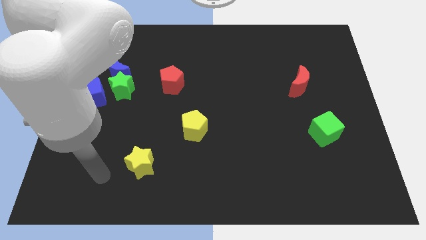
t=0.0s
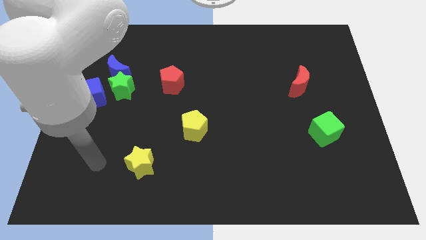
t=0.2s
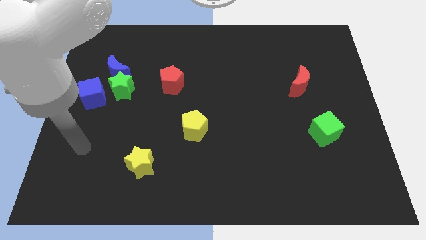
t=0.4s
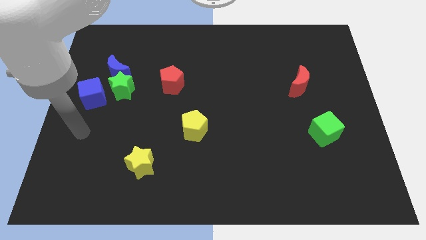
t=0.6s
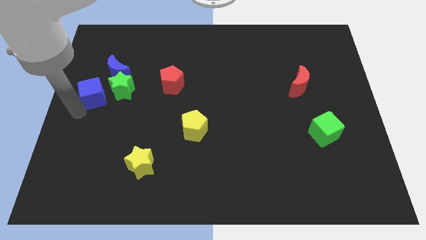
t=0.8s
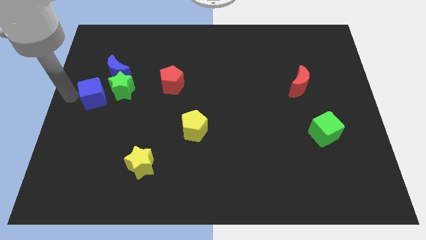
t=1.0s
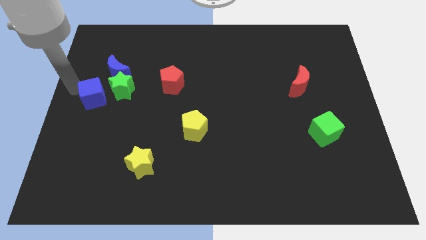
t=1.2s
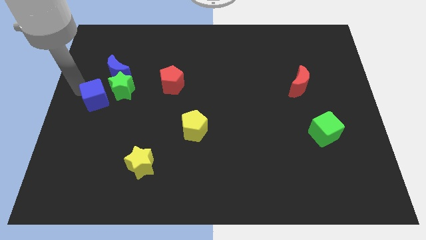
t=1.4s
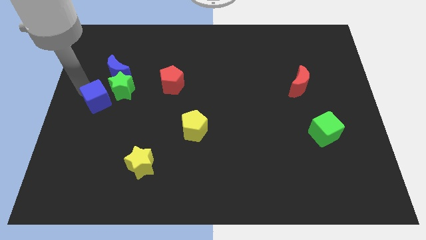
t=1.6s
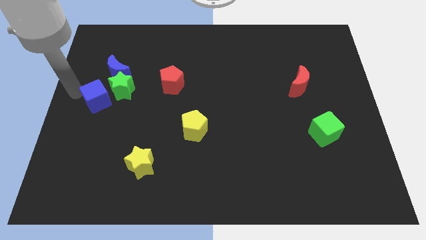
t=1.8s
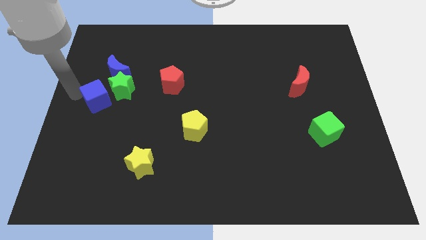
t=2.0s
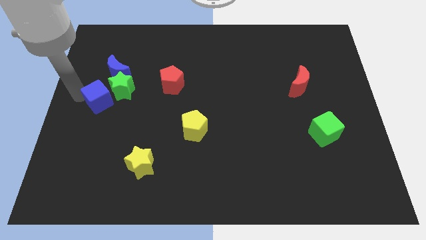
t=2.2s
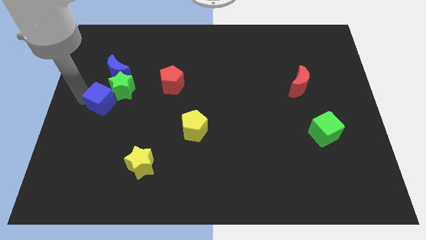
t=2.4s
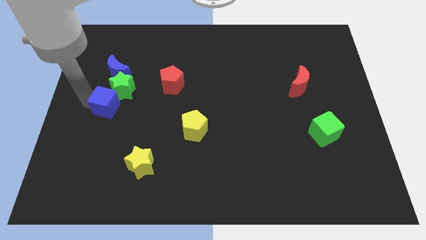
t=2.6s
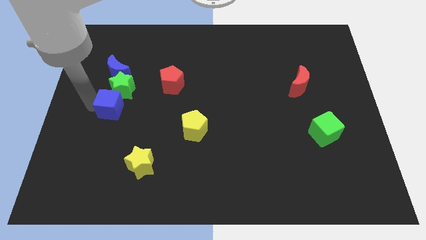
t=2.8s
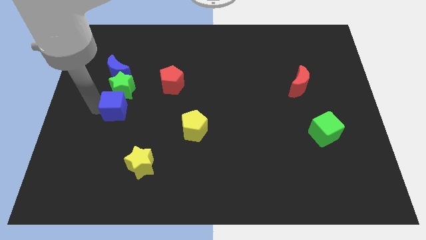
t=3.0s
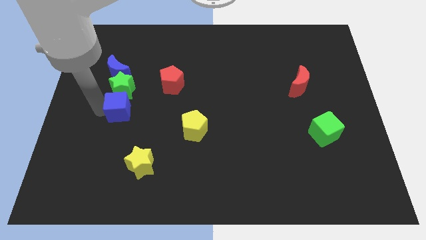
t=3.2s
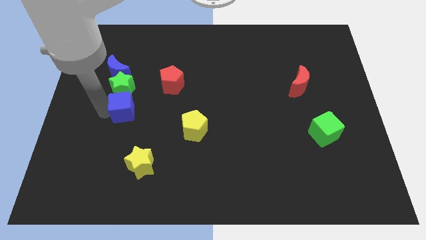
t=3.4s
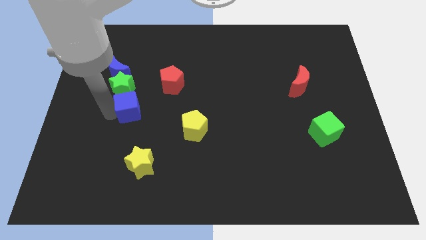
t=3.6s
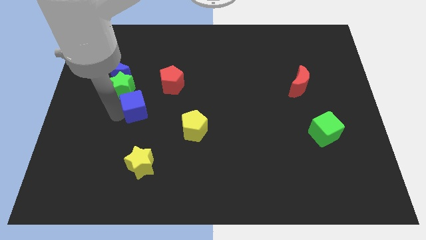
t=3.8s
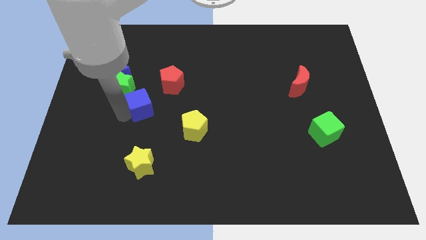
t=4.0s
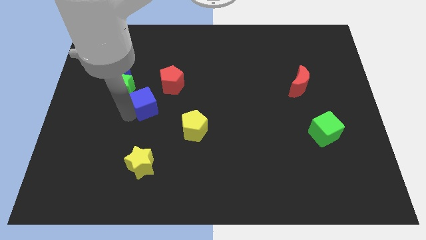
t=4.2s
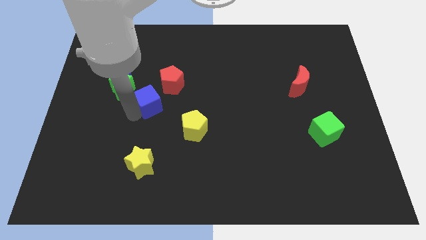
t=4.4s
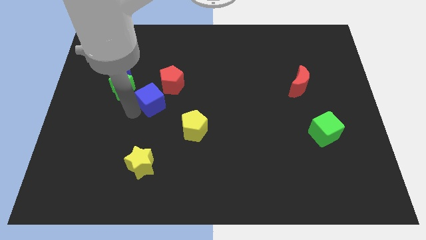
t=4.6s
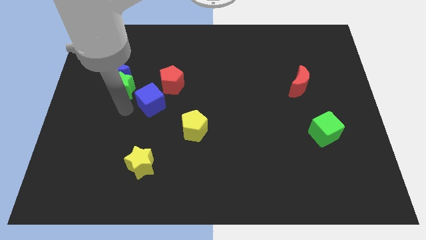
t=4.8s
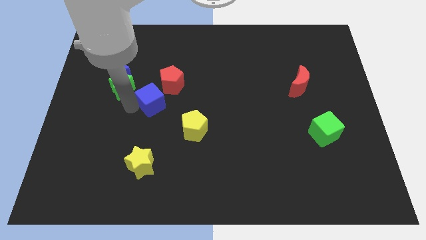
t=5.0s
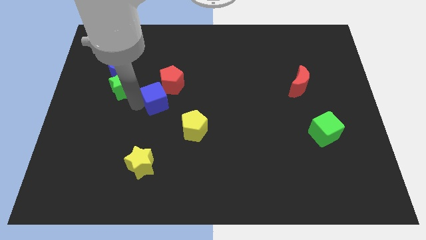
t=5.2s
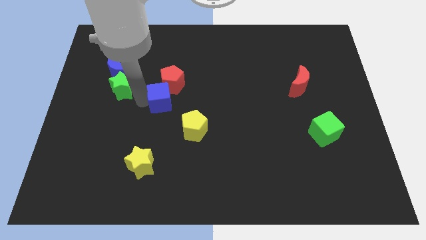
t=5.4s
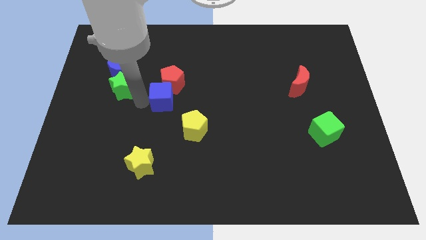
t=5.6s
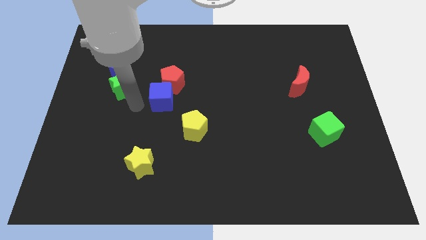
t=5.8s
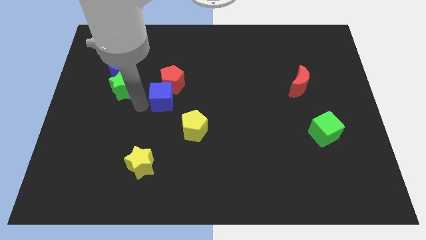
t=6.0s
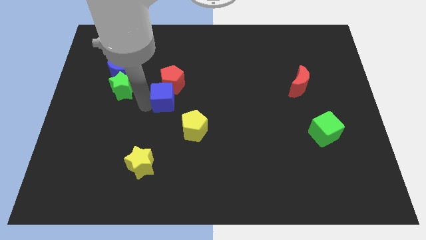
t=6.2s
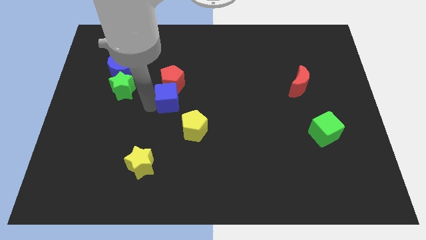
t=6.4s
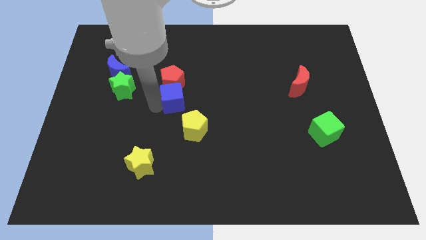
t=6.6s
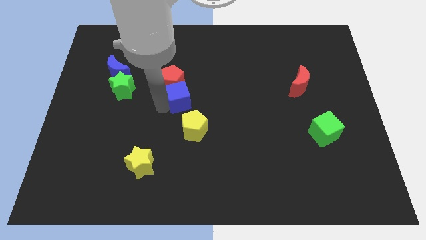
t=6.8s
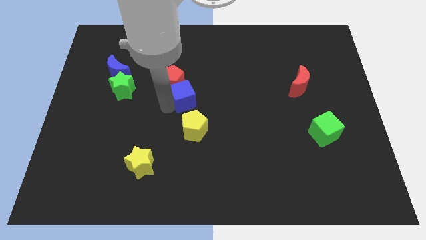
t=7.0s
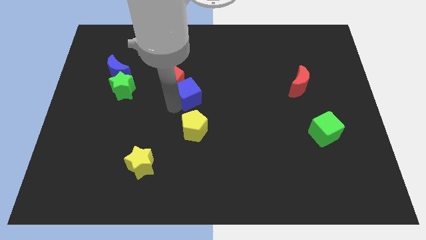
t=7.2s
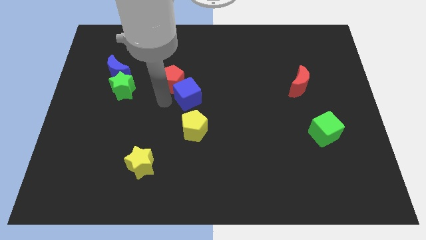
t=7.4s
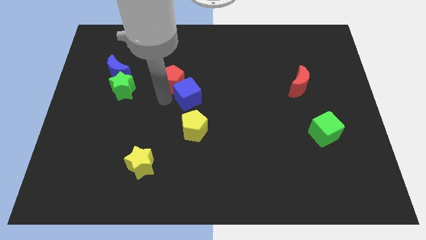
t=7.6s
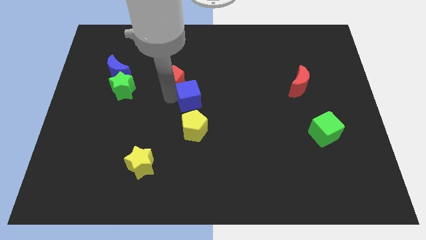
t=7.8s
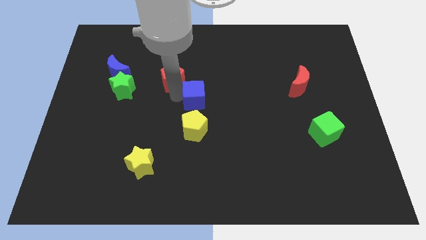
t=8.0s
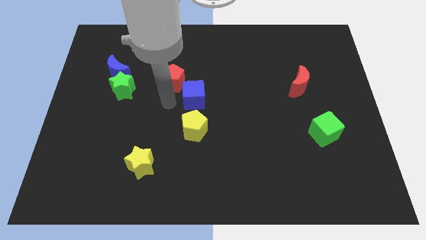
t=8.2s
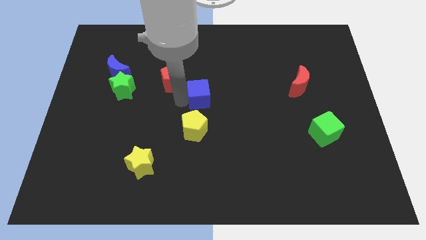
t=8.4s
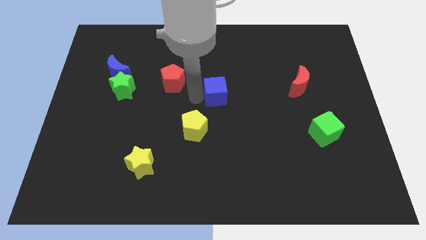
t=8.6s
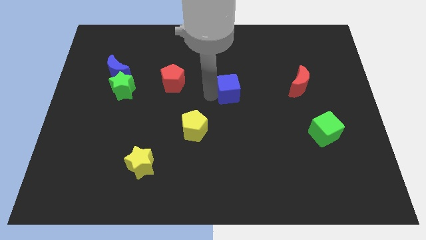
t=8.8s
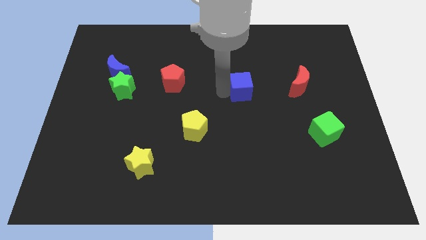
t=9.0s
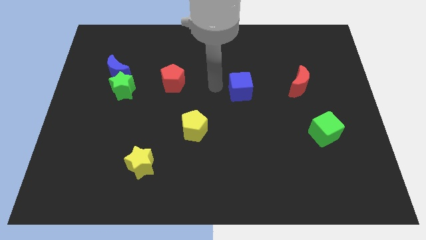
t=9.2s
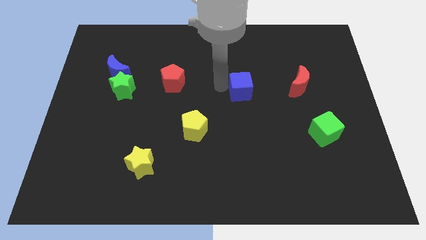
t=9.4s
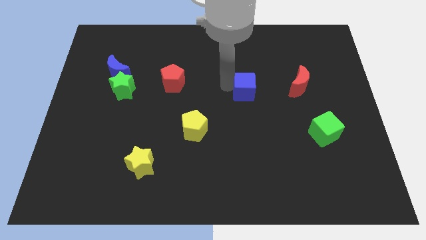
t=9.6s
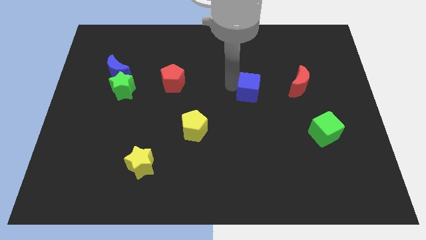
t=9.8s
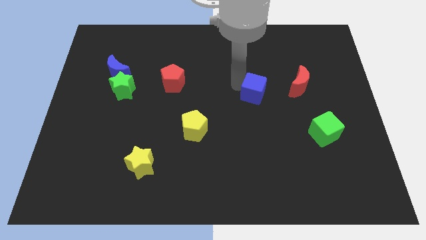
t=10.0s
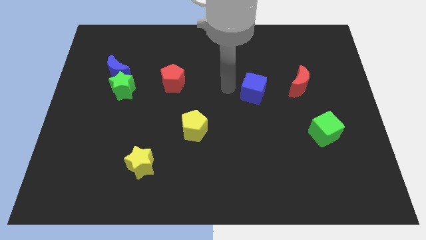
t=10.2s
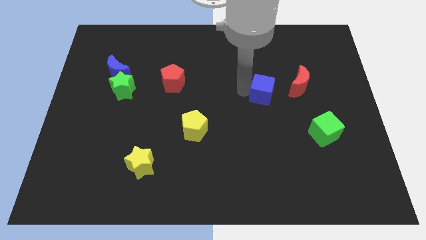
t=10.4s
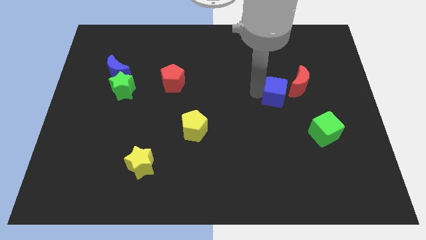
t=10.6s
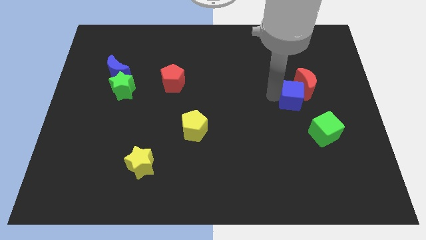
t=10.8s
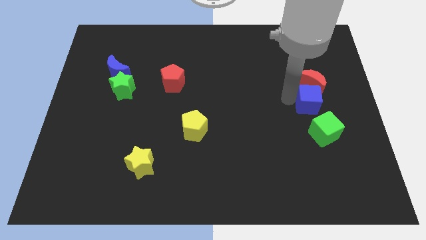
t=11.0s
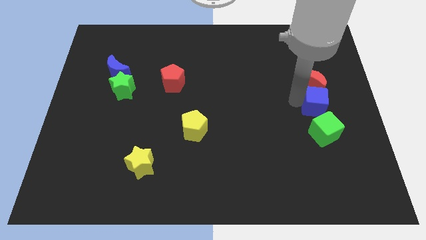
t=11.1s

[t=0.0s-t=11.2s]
push the blue cube to the bottom right side of the red moon

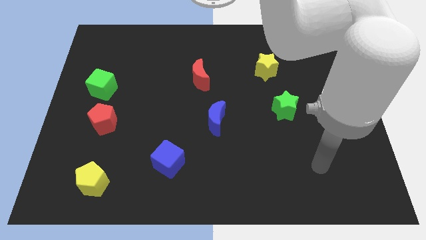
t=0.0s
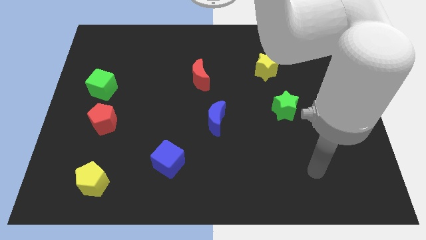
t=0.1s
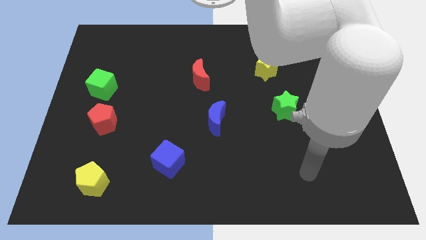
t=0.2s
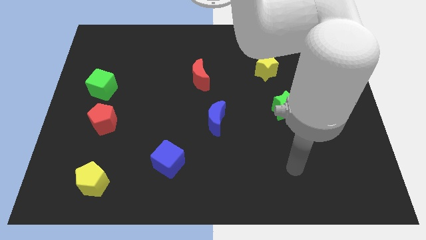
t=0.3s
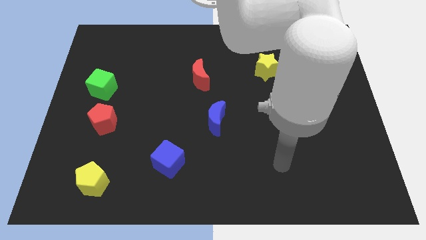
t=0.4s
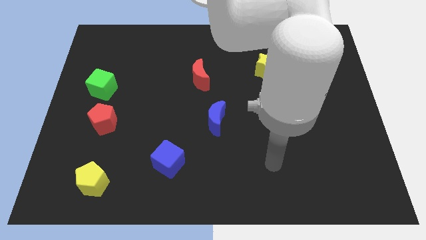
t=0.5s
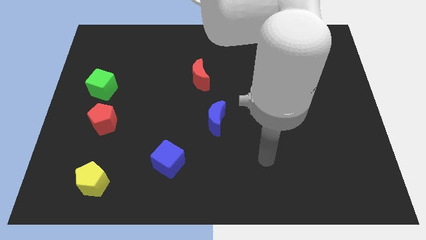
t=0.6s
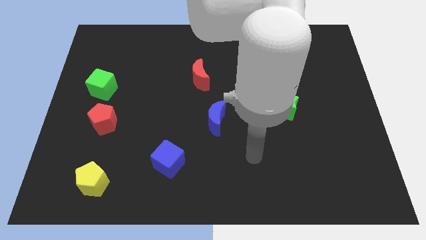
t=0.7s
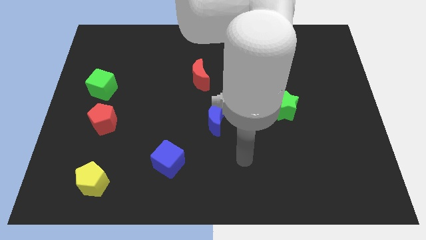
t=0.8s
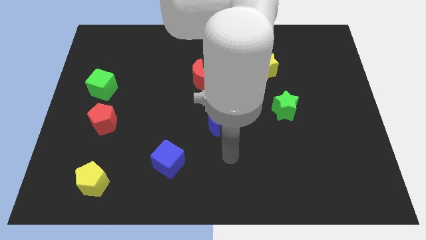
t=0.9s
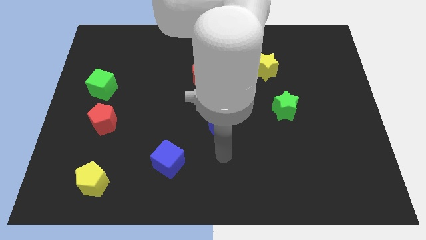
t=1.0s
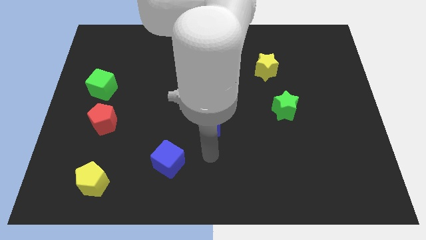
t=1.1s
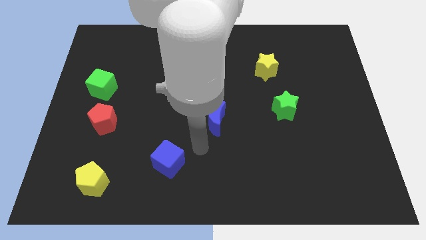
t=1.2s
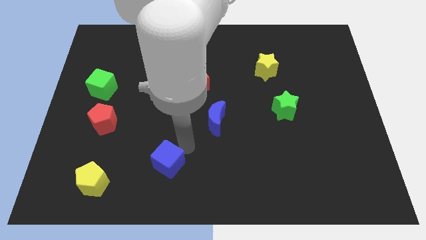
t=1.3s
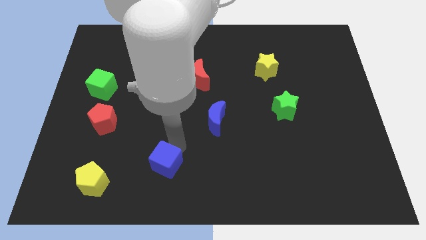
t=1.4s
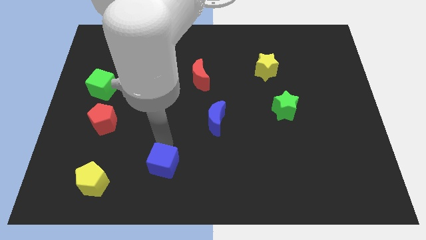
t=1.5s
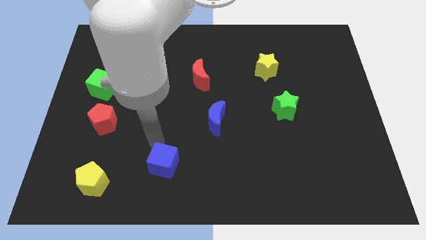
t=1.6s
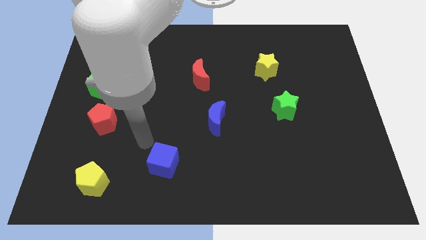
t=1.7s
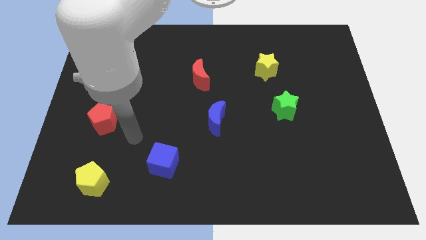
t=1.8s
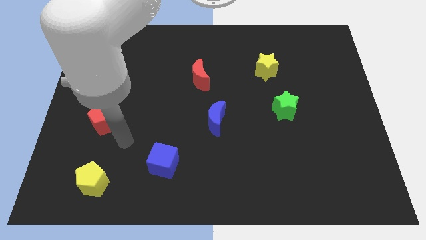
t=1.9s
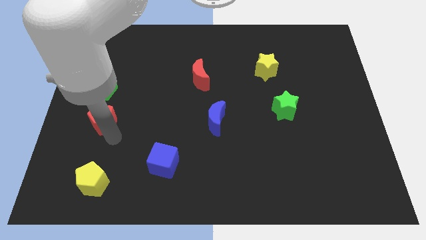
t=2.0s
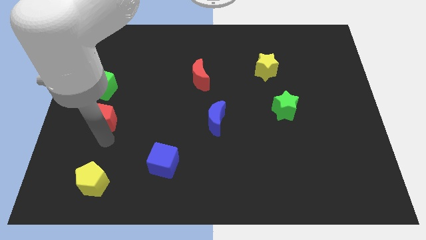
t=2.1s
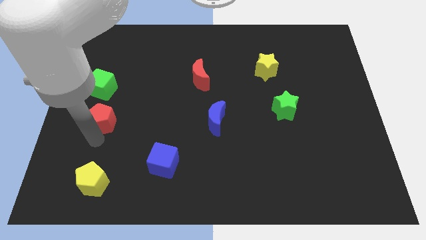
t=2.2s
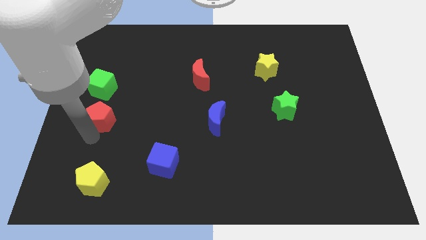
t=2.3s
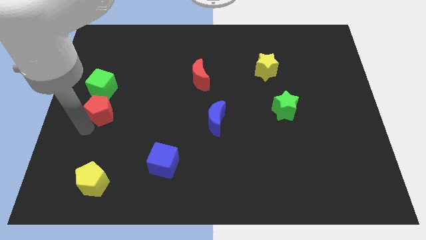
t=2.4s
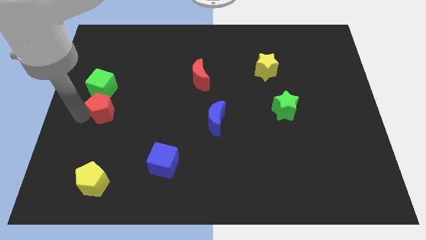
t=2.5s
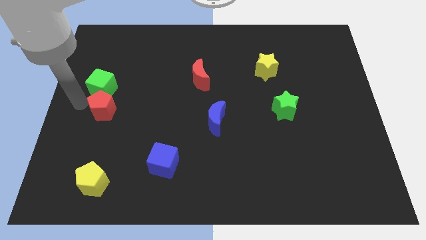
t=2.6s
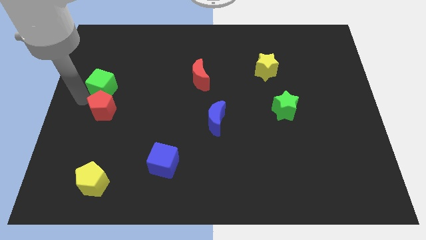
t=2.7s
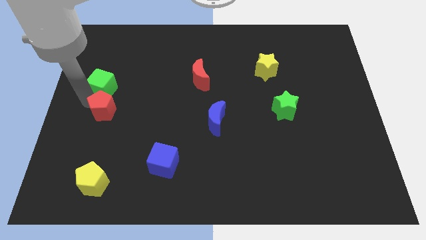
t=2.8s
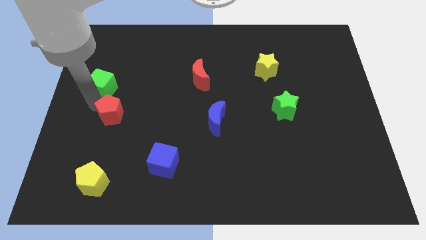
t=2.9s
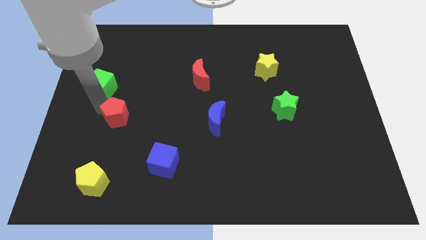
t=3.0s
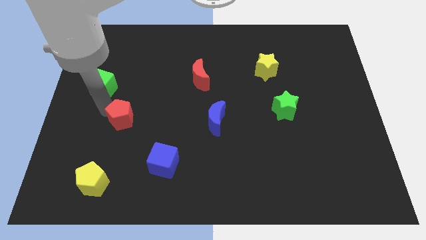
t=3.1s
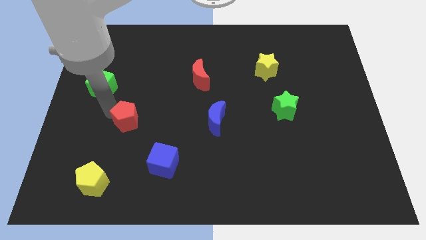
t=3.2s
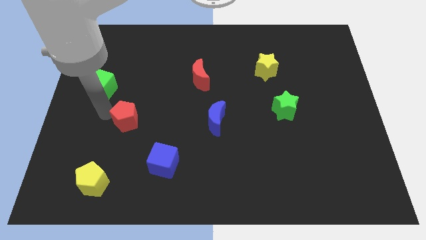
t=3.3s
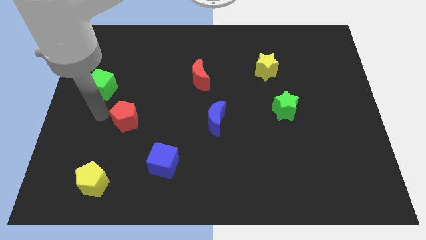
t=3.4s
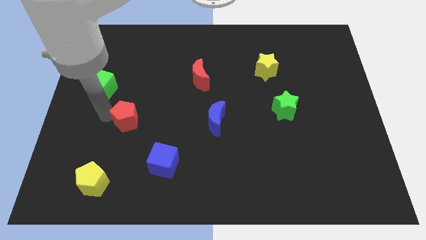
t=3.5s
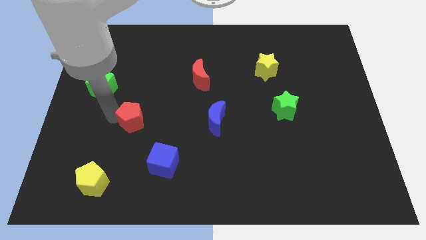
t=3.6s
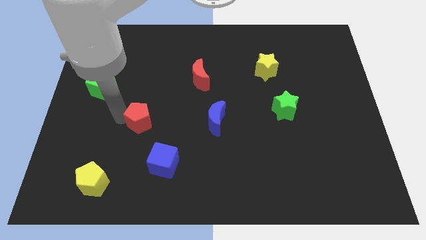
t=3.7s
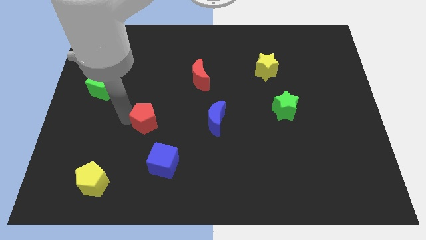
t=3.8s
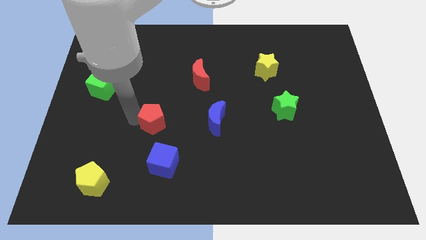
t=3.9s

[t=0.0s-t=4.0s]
move the red pentagon above the blue cube
